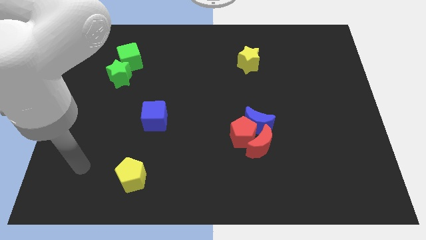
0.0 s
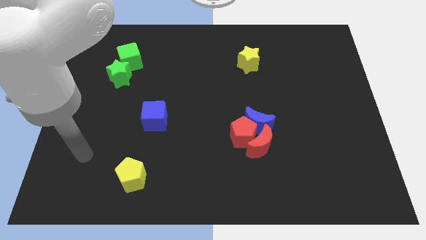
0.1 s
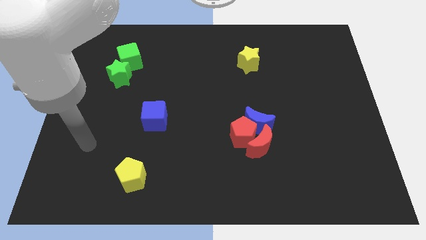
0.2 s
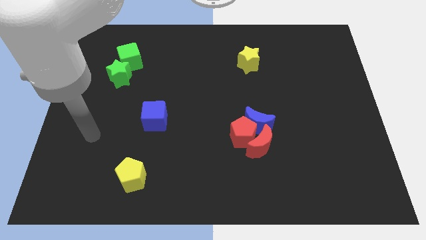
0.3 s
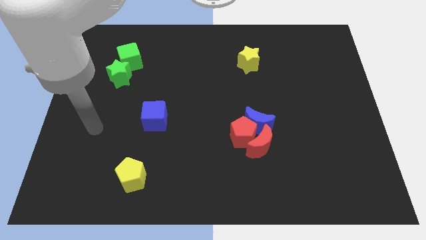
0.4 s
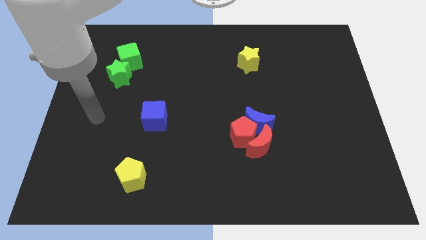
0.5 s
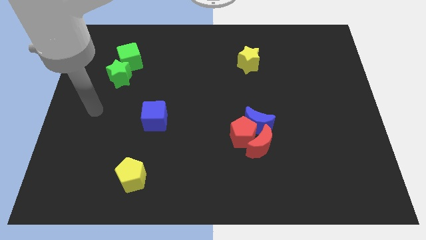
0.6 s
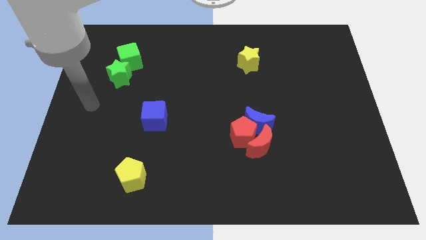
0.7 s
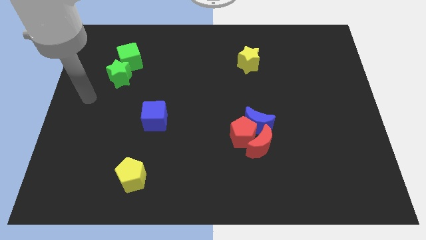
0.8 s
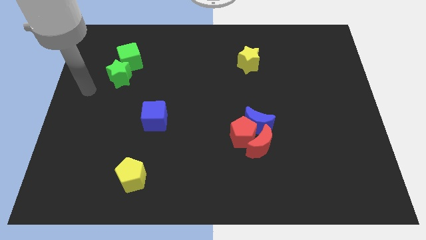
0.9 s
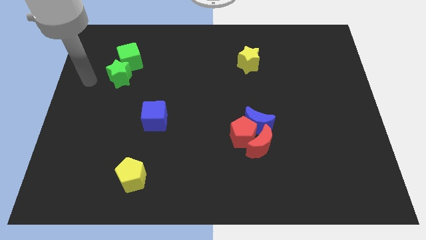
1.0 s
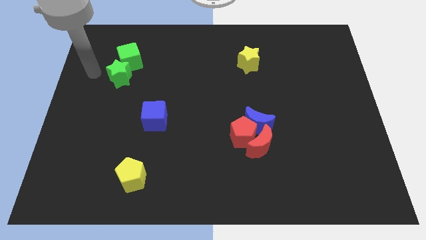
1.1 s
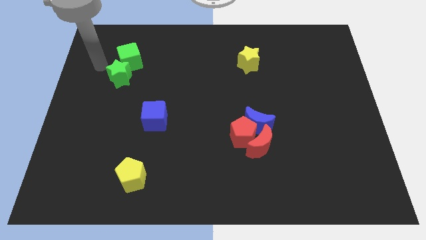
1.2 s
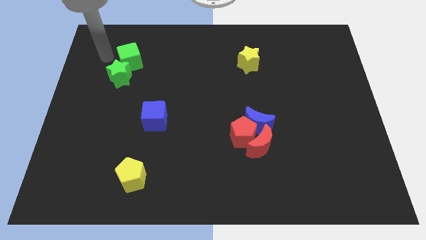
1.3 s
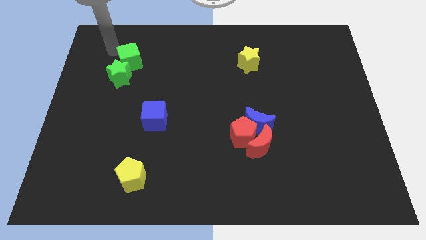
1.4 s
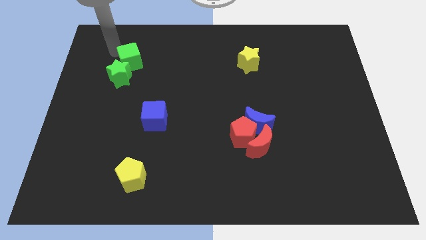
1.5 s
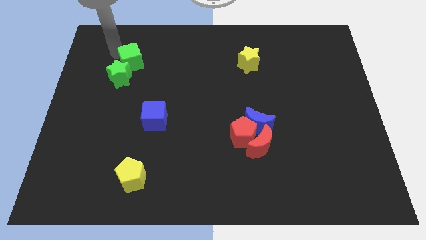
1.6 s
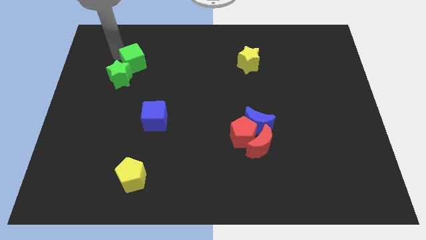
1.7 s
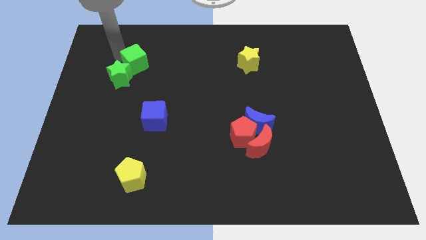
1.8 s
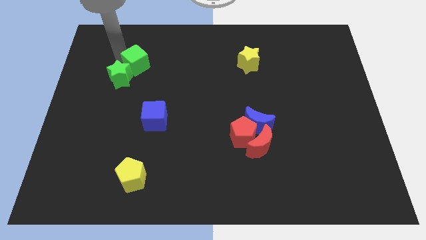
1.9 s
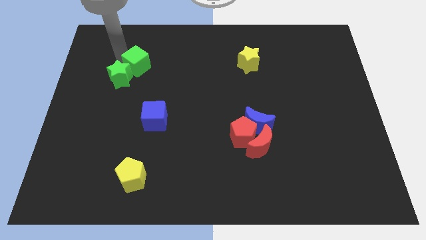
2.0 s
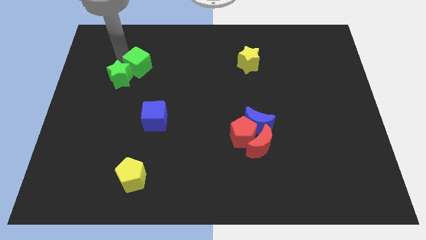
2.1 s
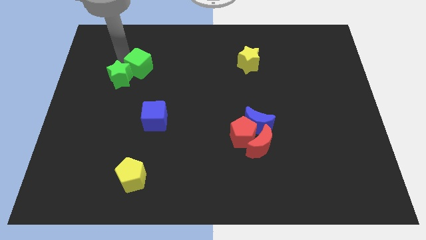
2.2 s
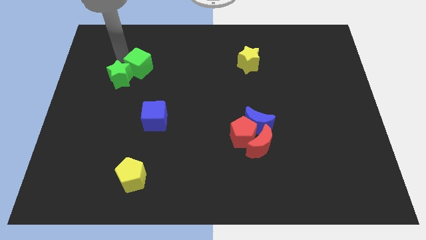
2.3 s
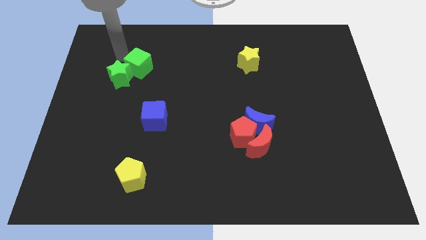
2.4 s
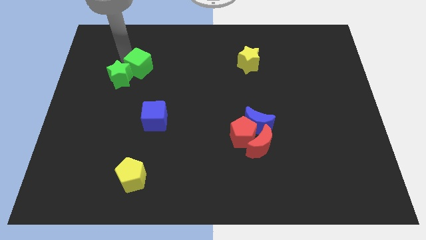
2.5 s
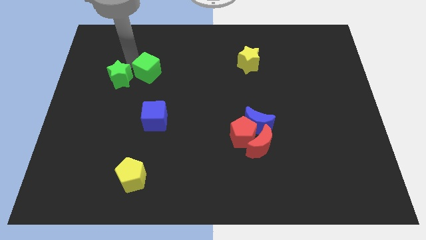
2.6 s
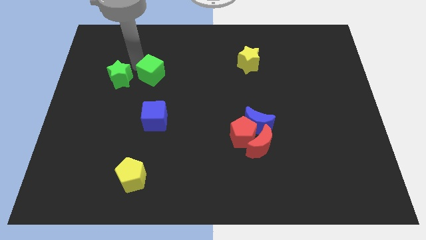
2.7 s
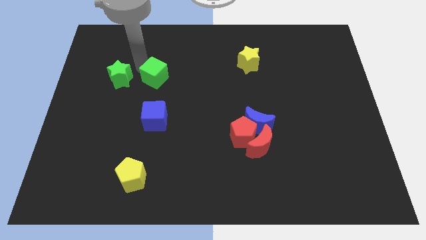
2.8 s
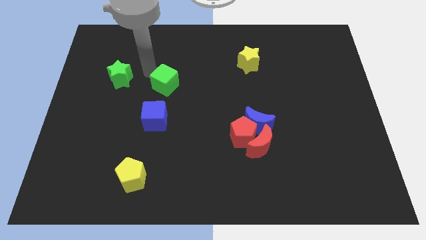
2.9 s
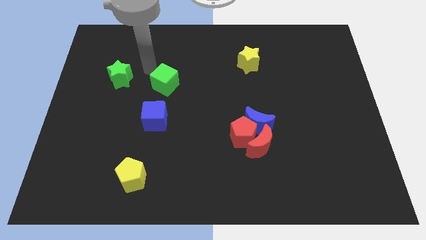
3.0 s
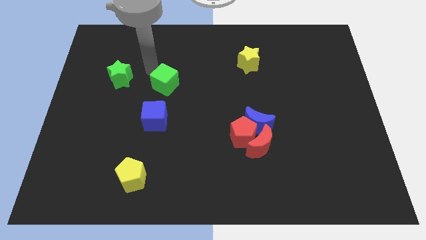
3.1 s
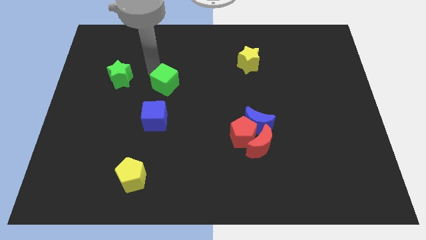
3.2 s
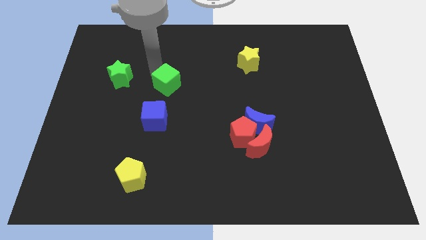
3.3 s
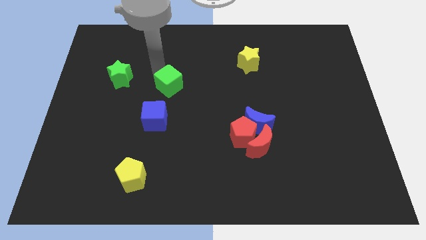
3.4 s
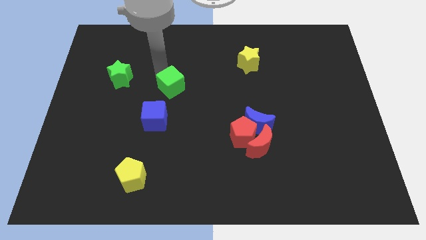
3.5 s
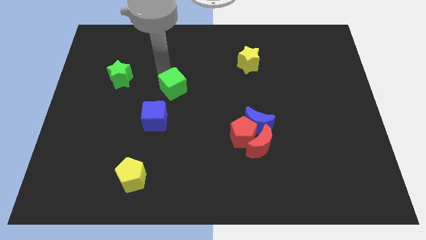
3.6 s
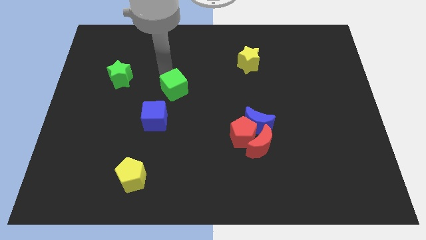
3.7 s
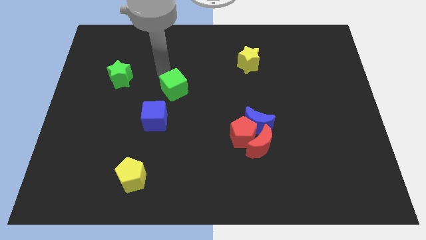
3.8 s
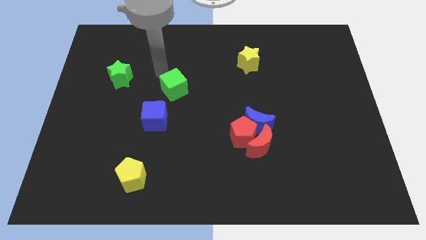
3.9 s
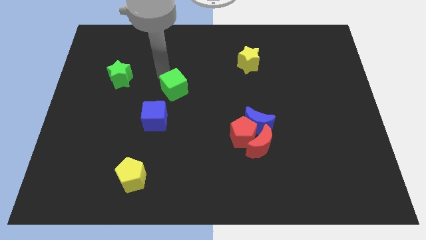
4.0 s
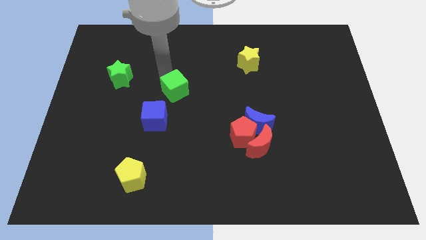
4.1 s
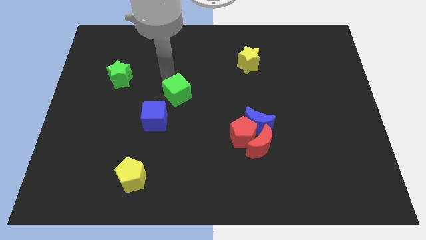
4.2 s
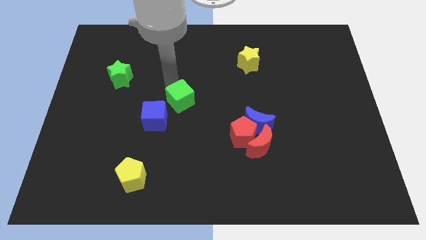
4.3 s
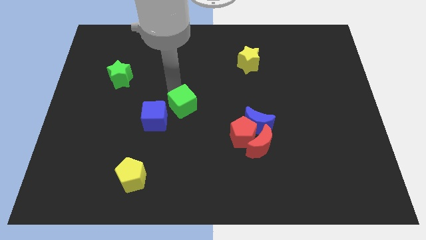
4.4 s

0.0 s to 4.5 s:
push the green cube down and right

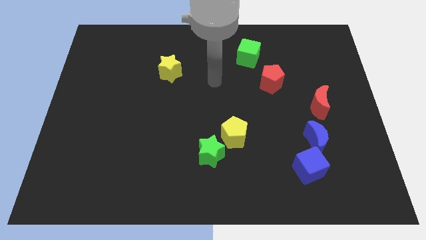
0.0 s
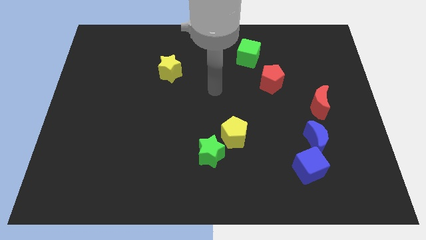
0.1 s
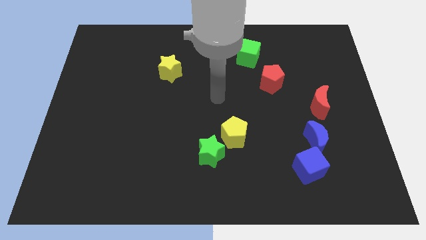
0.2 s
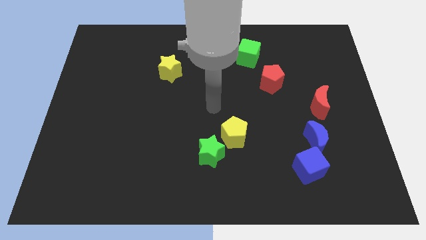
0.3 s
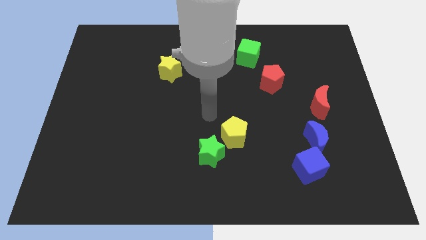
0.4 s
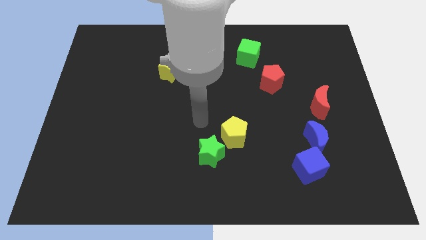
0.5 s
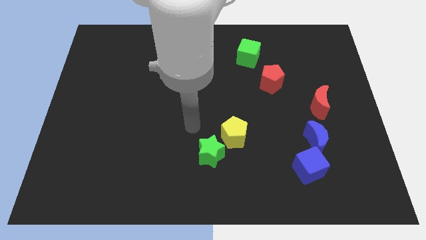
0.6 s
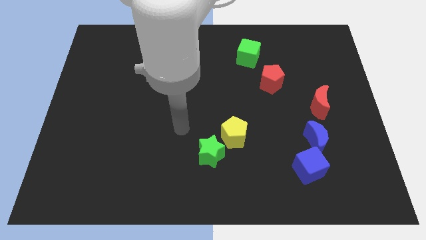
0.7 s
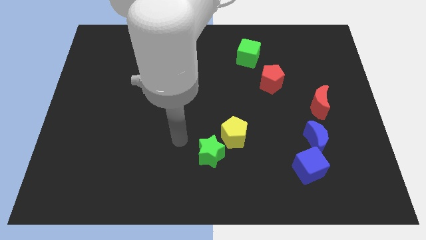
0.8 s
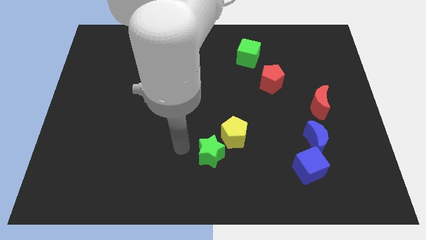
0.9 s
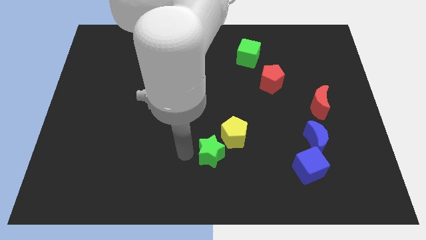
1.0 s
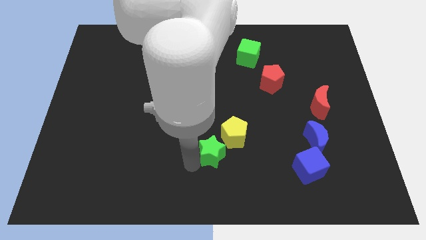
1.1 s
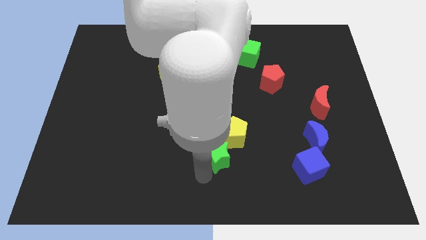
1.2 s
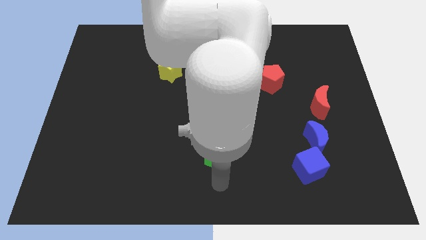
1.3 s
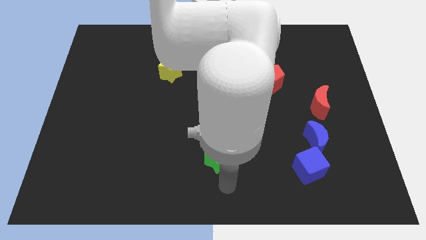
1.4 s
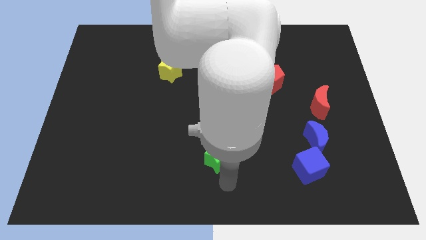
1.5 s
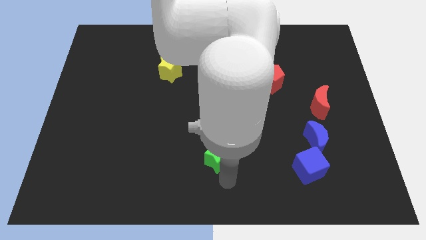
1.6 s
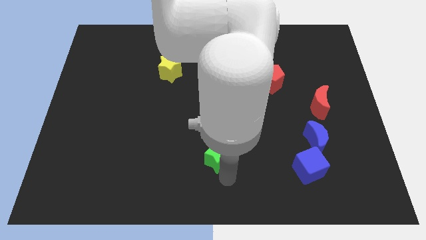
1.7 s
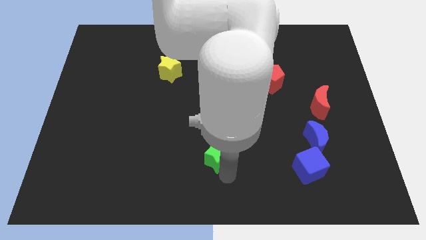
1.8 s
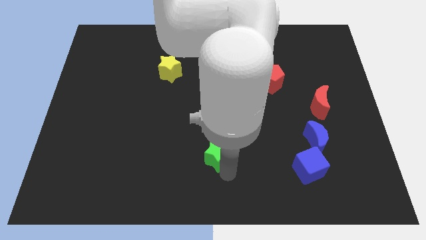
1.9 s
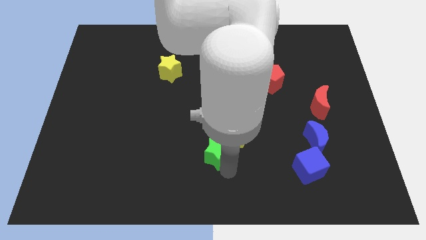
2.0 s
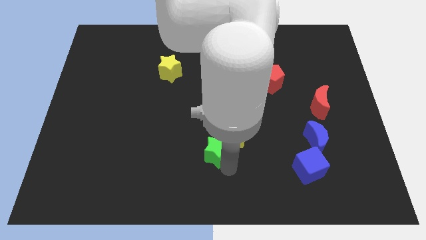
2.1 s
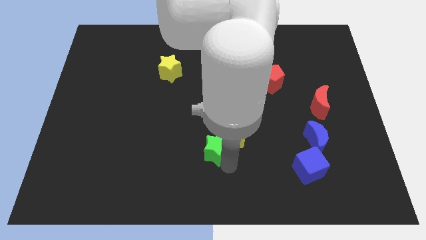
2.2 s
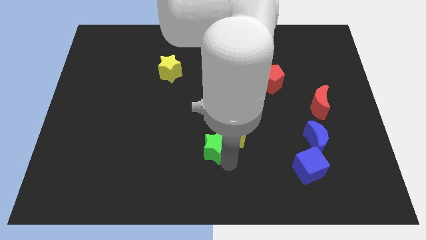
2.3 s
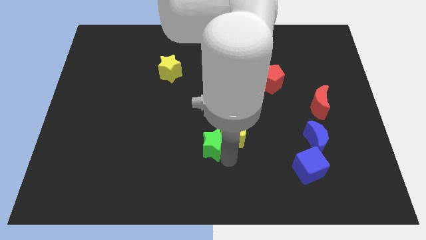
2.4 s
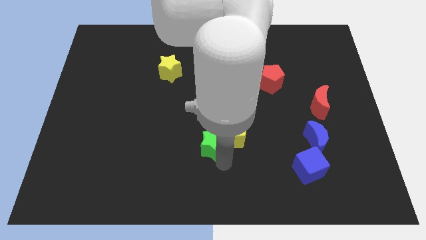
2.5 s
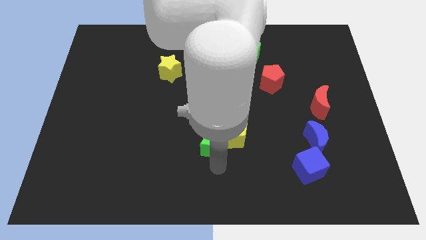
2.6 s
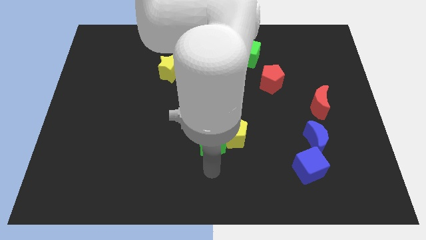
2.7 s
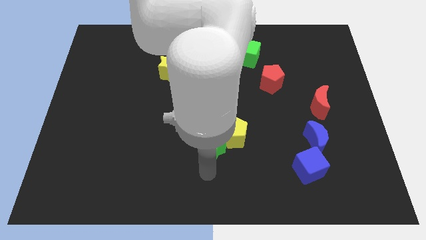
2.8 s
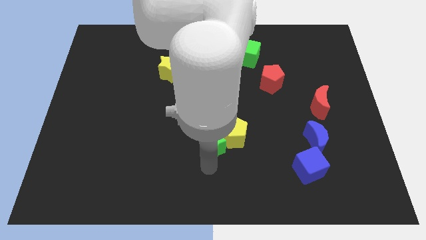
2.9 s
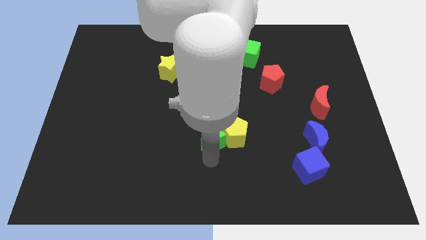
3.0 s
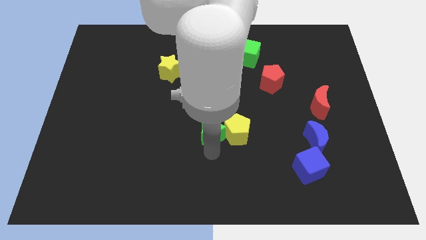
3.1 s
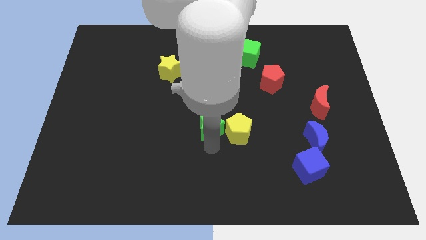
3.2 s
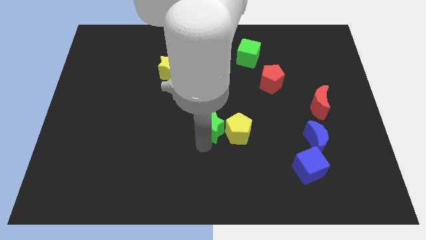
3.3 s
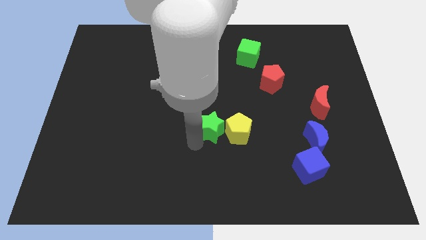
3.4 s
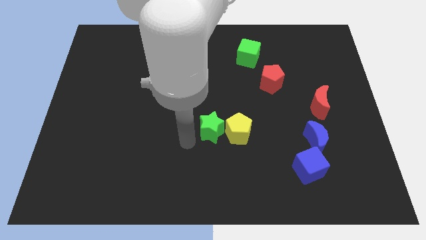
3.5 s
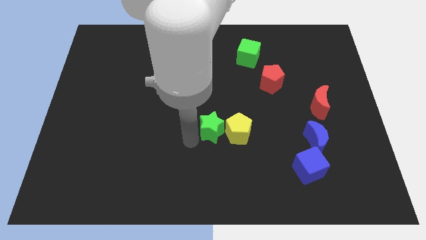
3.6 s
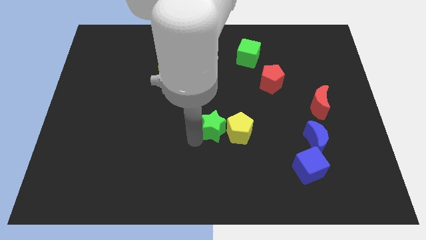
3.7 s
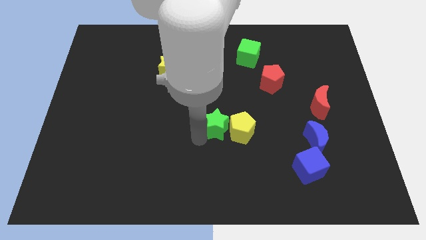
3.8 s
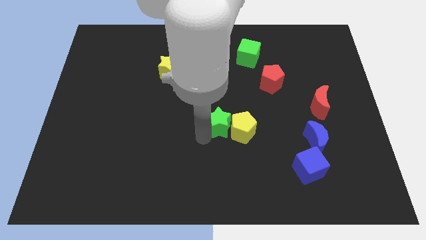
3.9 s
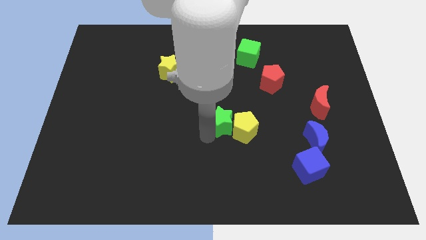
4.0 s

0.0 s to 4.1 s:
slightly push the green star upwards and right diagonally
